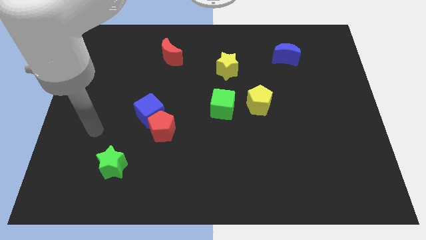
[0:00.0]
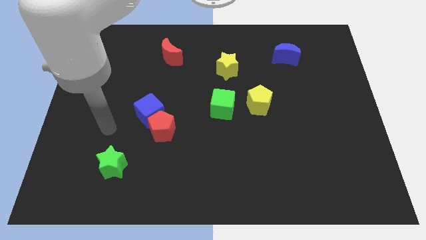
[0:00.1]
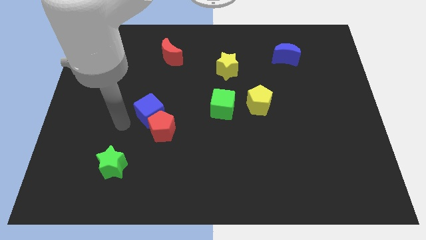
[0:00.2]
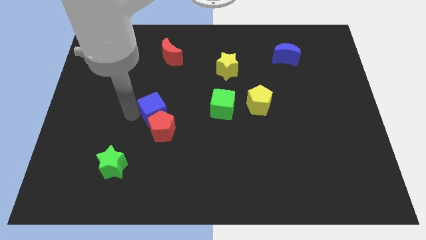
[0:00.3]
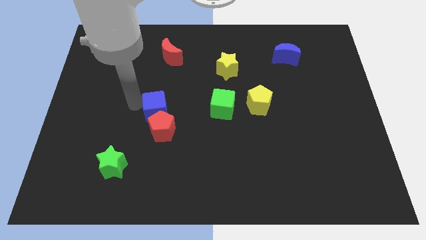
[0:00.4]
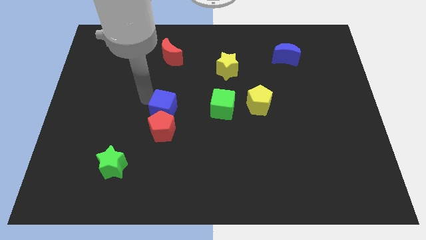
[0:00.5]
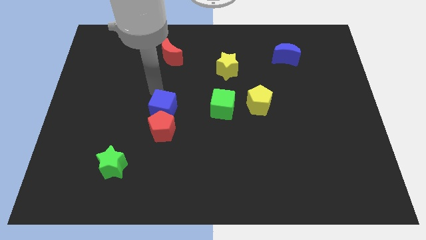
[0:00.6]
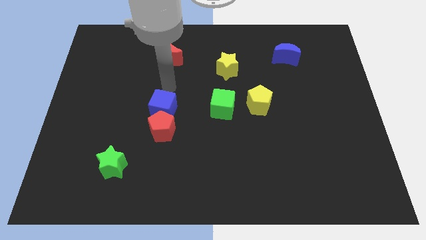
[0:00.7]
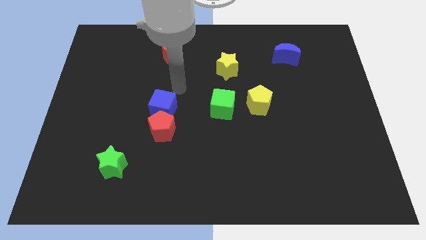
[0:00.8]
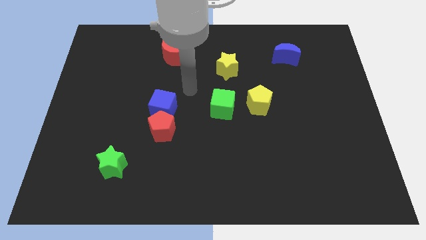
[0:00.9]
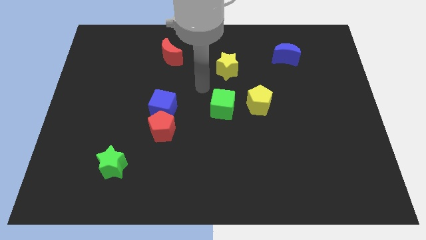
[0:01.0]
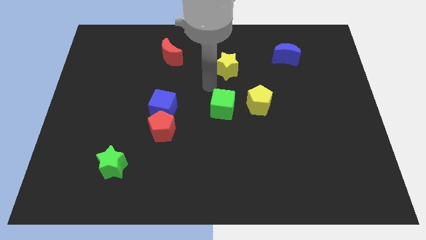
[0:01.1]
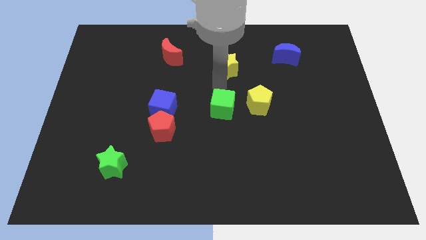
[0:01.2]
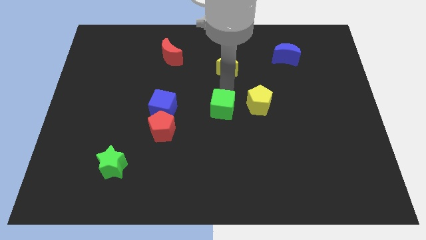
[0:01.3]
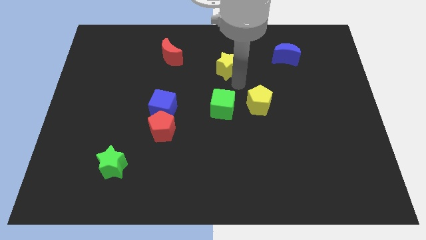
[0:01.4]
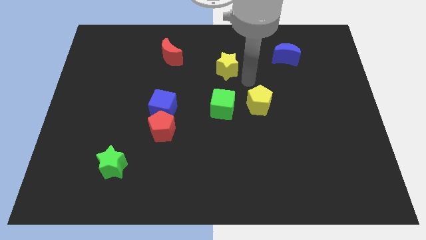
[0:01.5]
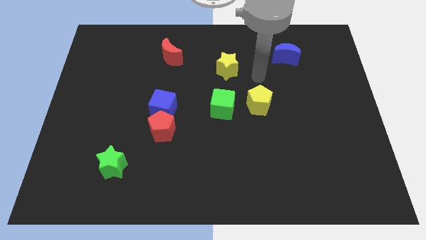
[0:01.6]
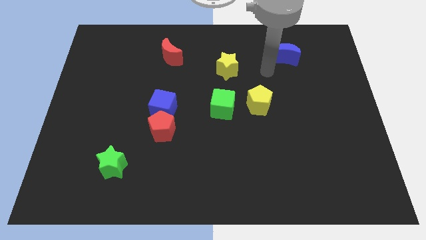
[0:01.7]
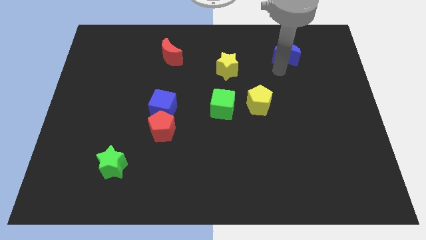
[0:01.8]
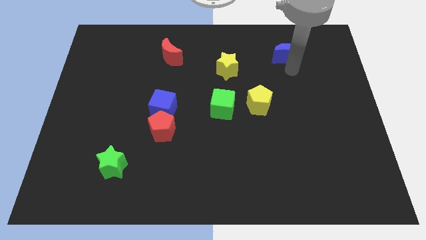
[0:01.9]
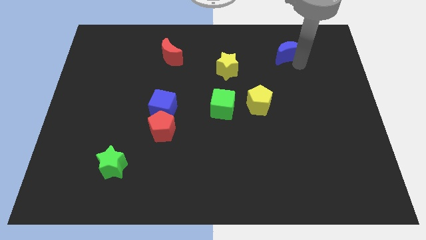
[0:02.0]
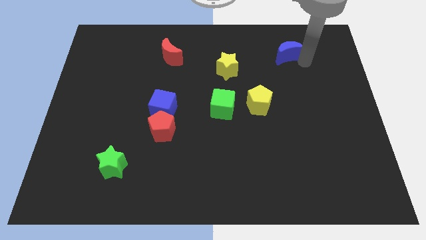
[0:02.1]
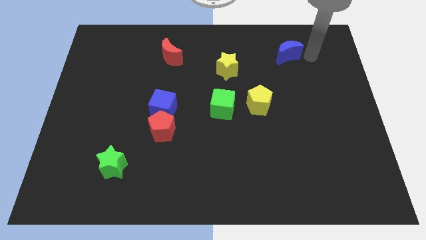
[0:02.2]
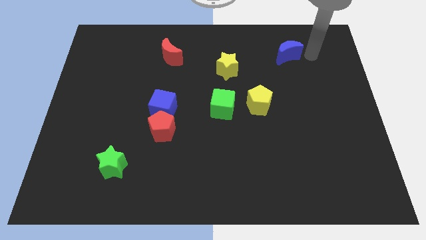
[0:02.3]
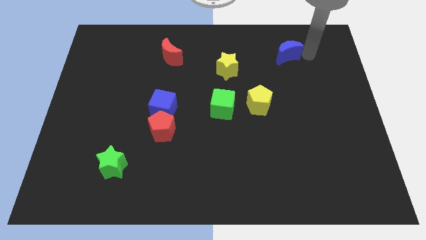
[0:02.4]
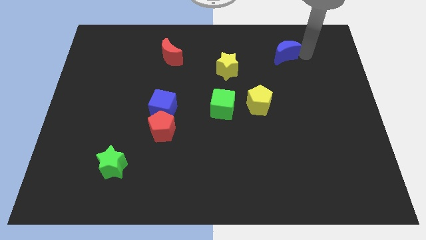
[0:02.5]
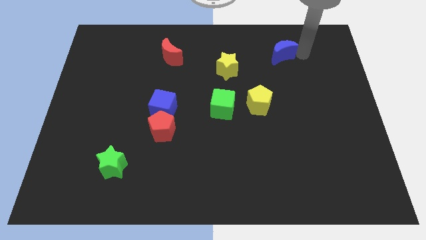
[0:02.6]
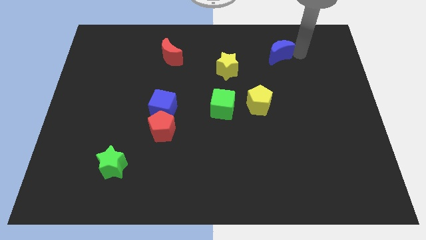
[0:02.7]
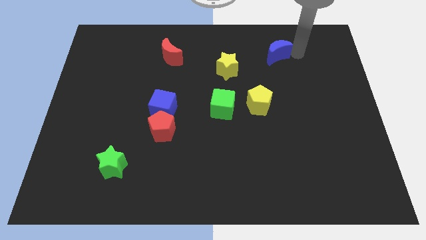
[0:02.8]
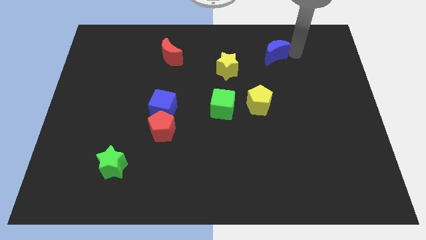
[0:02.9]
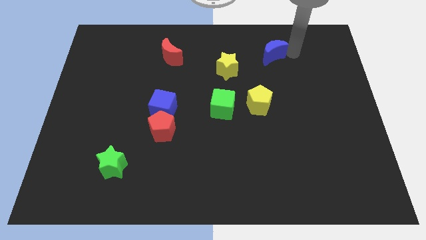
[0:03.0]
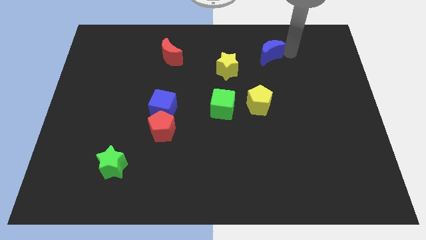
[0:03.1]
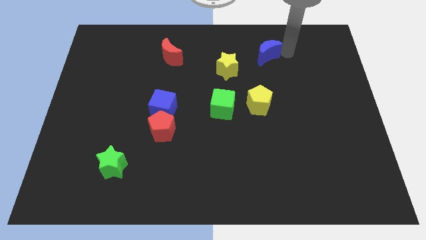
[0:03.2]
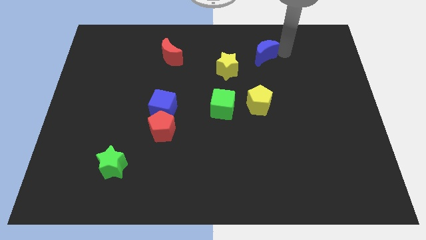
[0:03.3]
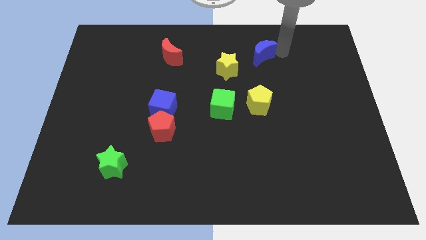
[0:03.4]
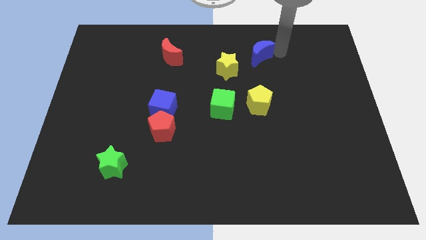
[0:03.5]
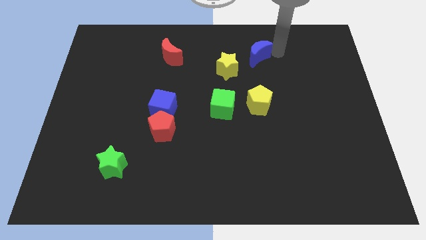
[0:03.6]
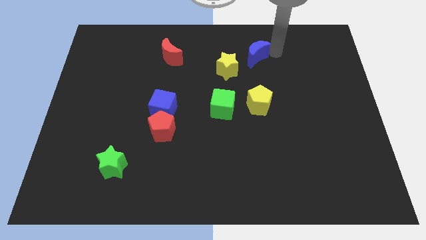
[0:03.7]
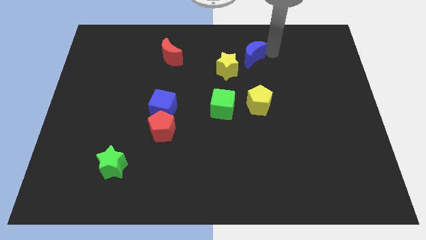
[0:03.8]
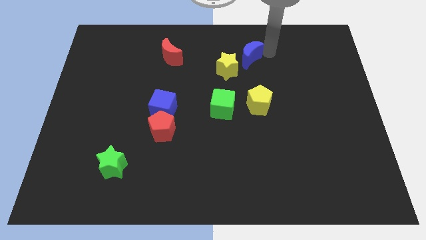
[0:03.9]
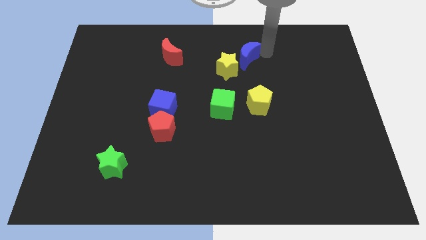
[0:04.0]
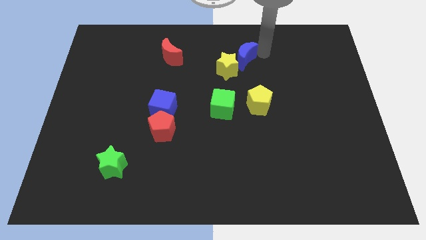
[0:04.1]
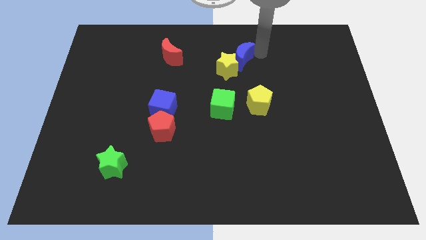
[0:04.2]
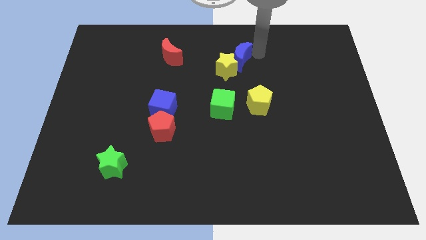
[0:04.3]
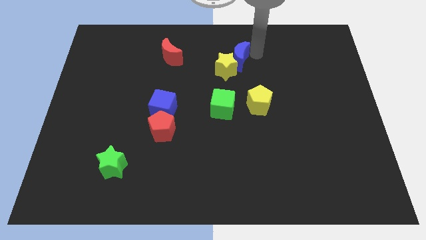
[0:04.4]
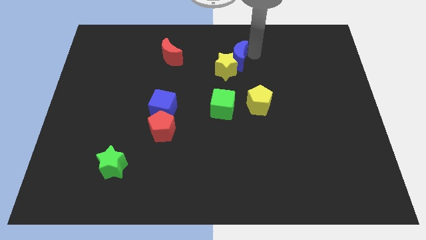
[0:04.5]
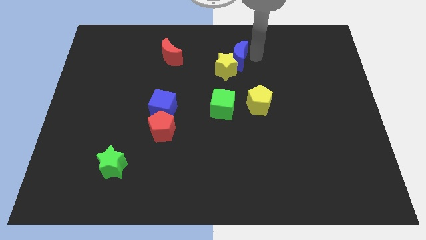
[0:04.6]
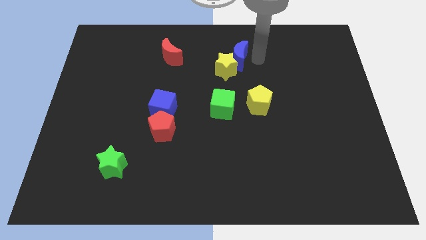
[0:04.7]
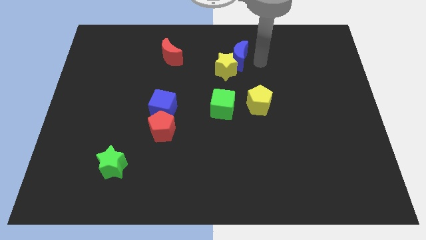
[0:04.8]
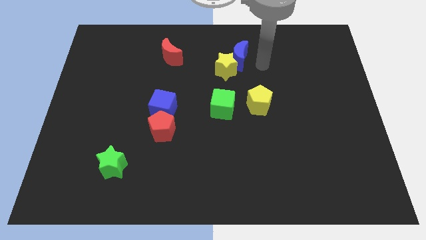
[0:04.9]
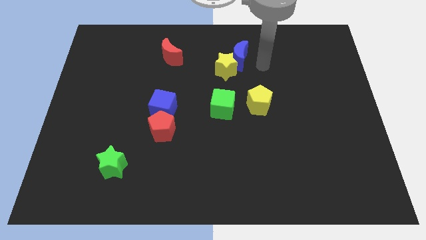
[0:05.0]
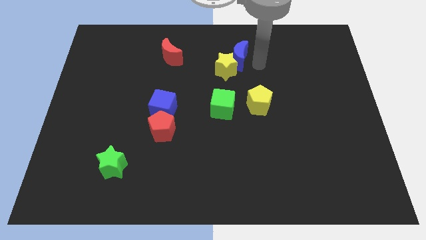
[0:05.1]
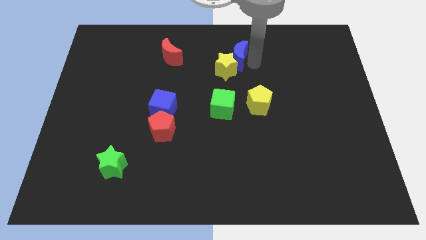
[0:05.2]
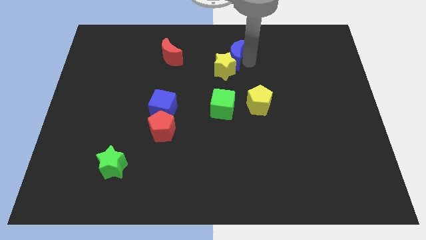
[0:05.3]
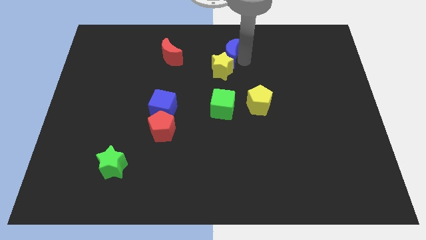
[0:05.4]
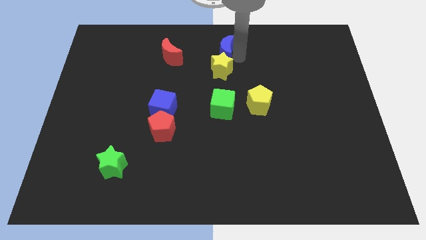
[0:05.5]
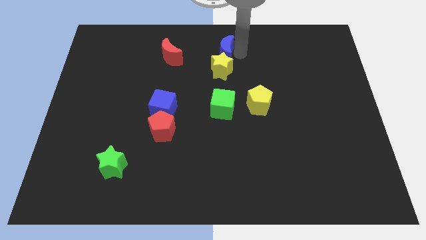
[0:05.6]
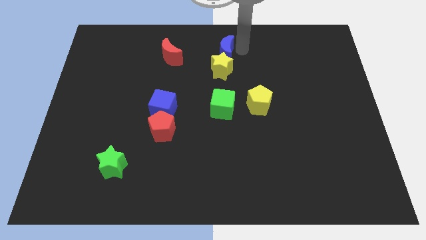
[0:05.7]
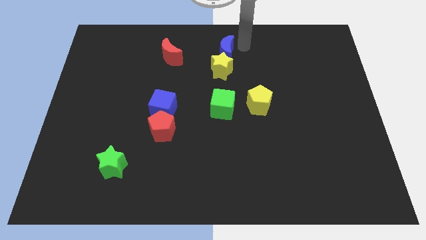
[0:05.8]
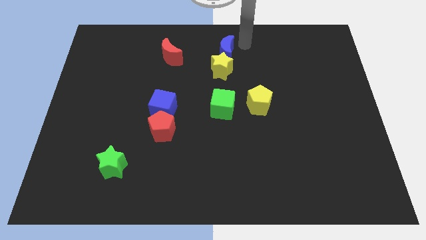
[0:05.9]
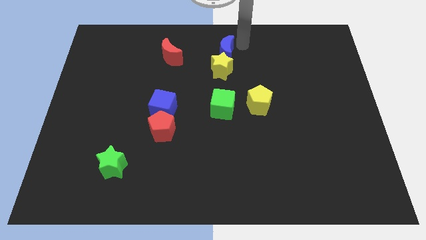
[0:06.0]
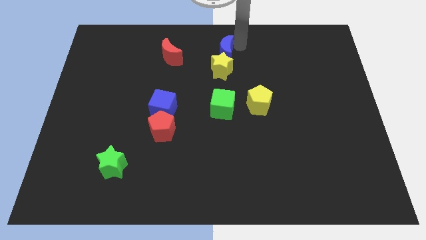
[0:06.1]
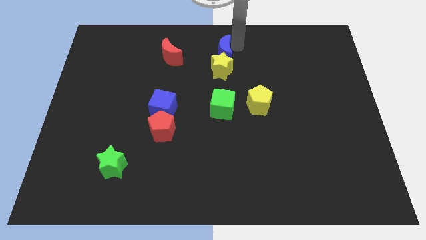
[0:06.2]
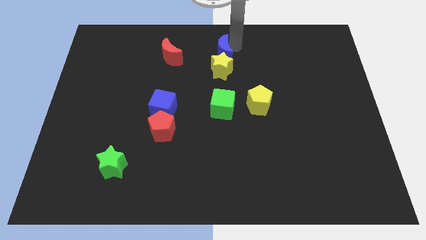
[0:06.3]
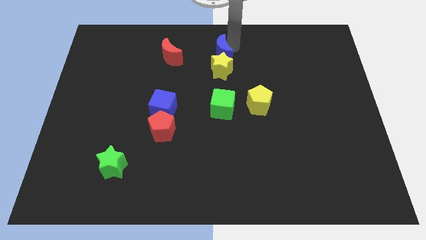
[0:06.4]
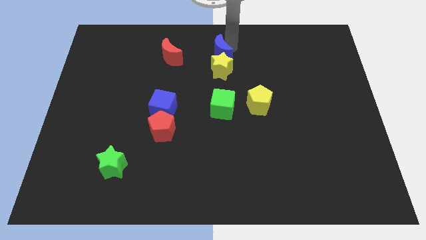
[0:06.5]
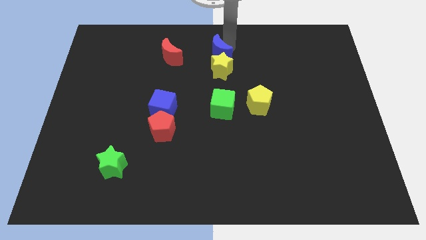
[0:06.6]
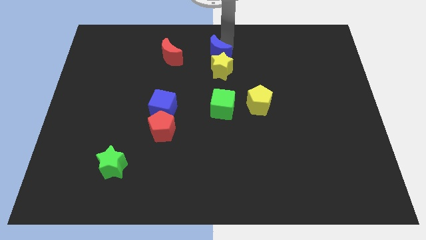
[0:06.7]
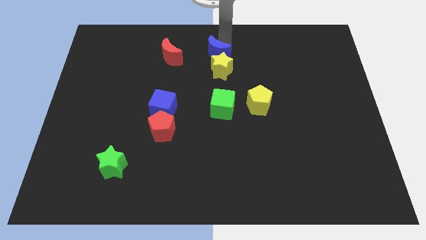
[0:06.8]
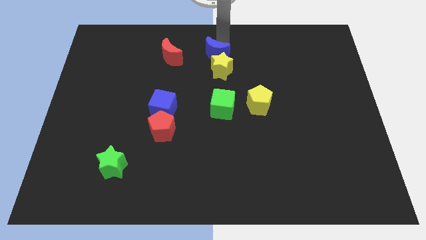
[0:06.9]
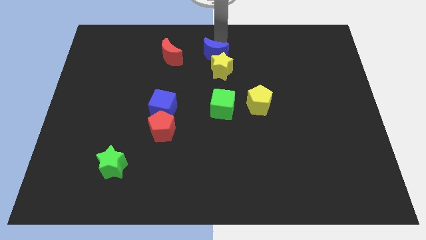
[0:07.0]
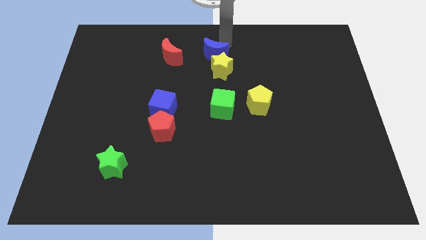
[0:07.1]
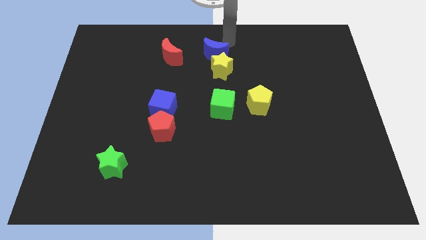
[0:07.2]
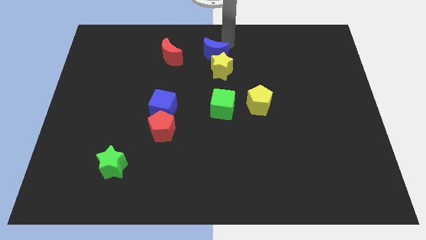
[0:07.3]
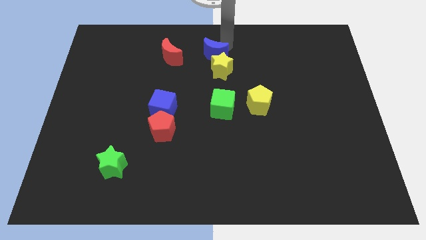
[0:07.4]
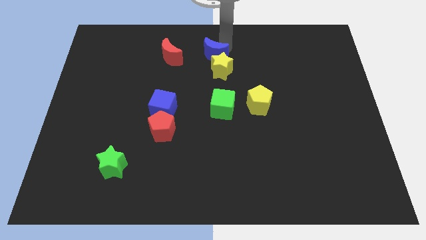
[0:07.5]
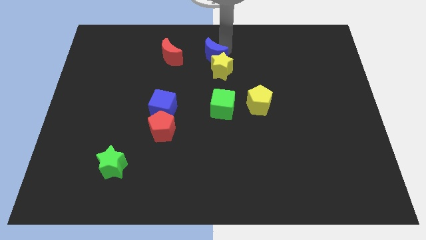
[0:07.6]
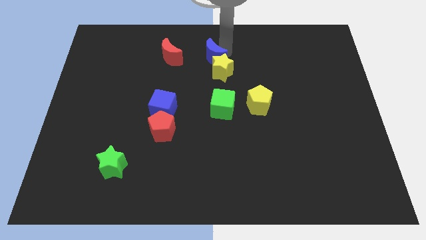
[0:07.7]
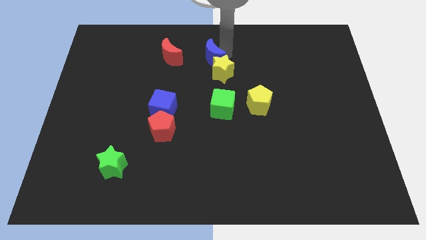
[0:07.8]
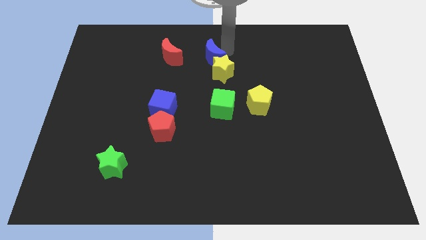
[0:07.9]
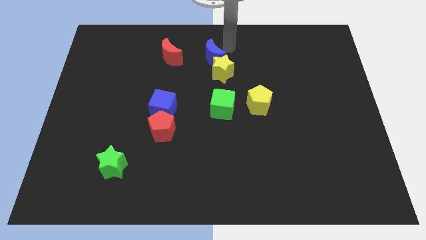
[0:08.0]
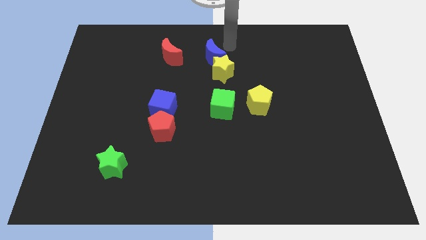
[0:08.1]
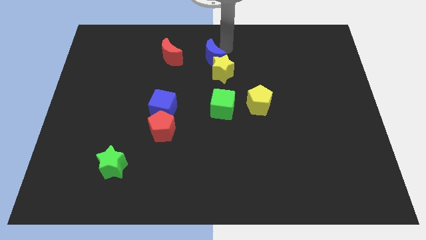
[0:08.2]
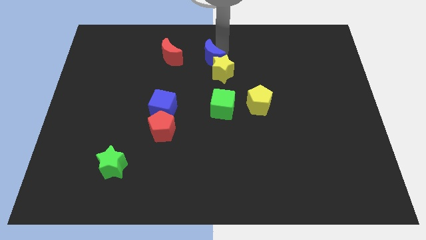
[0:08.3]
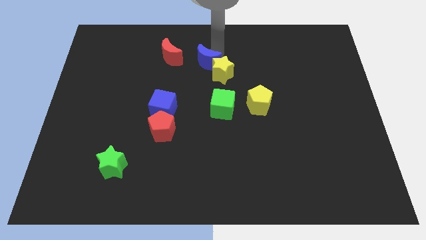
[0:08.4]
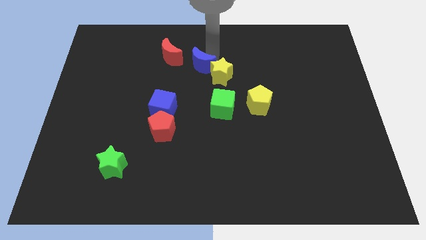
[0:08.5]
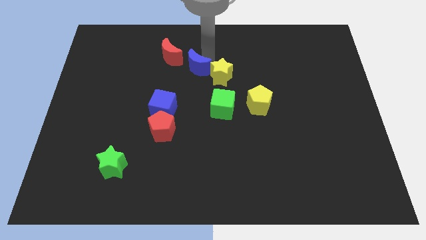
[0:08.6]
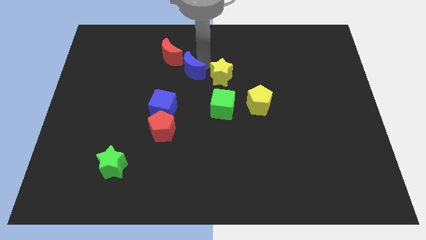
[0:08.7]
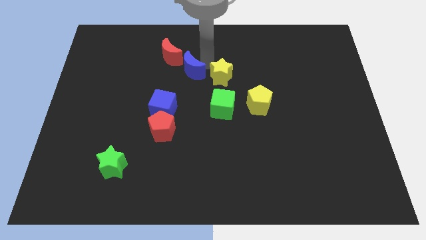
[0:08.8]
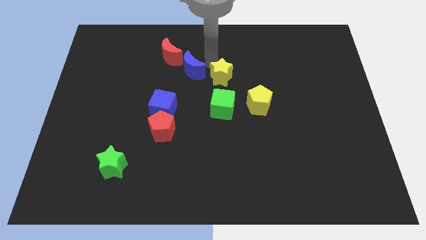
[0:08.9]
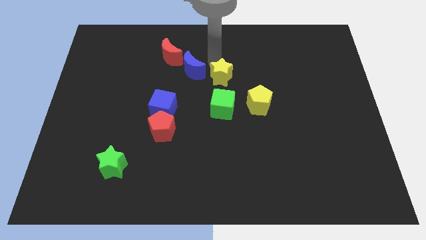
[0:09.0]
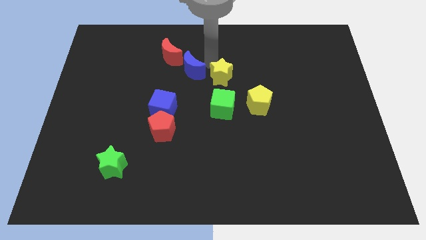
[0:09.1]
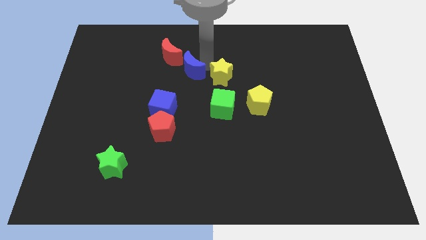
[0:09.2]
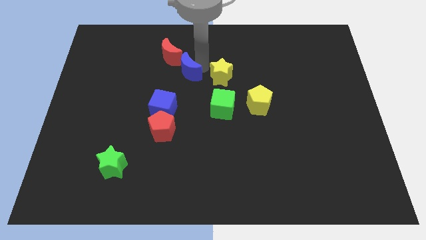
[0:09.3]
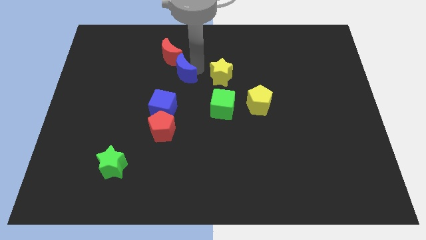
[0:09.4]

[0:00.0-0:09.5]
push the blue moon to the top of the blue cube
